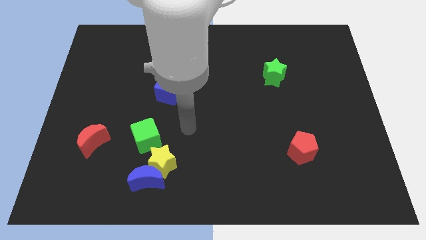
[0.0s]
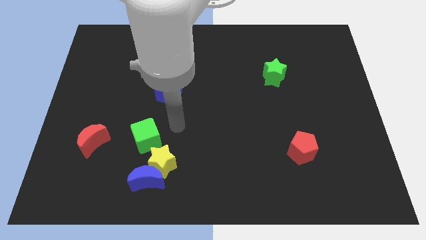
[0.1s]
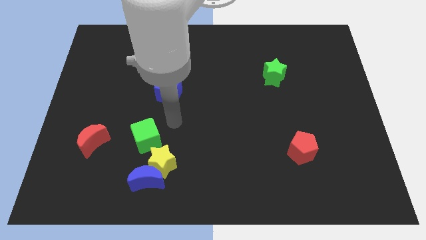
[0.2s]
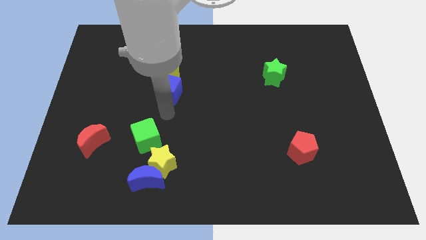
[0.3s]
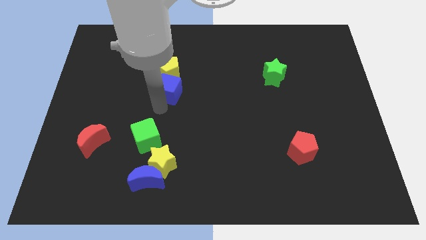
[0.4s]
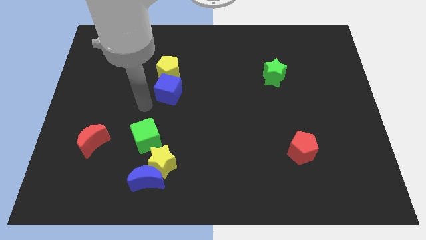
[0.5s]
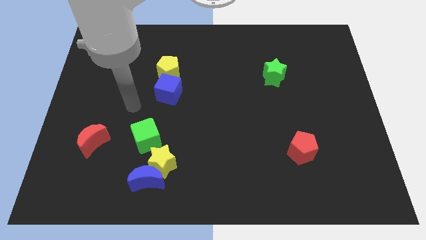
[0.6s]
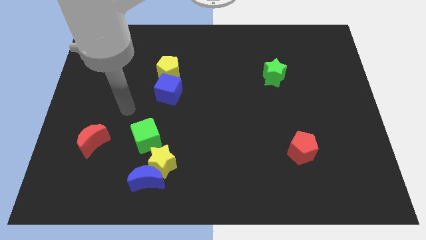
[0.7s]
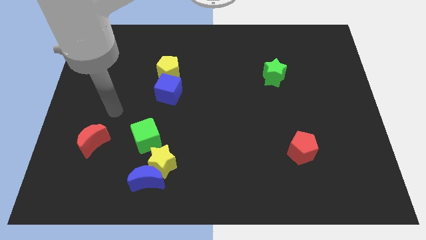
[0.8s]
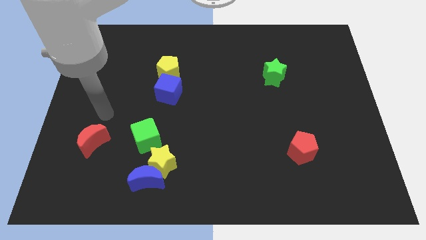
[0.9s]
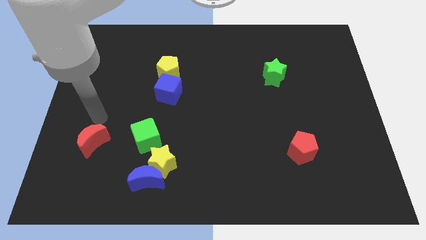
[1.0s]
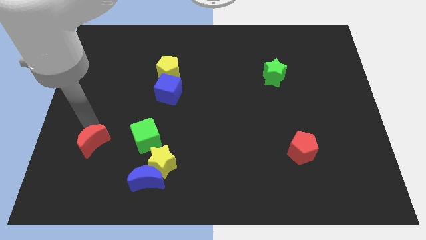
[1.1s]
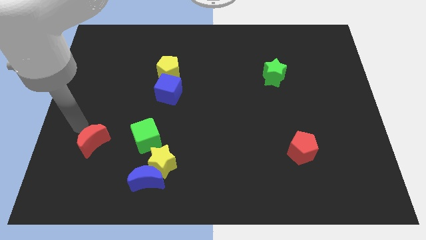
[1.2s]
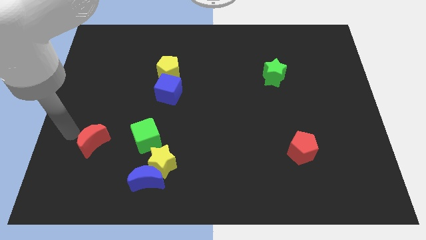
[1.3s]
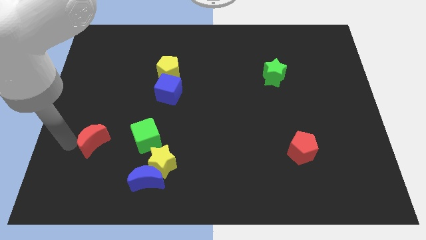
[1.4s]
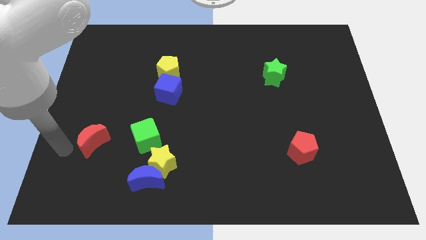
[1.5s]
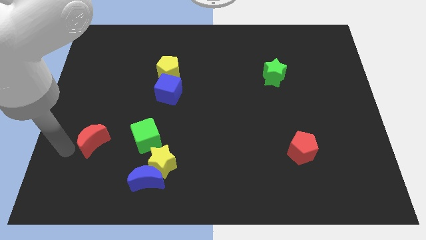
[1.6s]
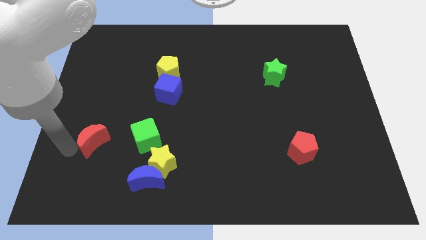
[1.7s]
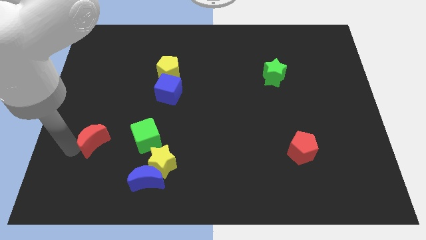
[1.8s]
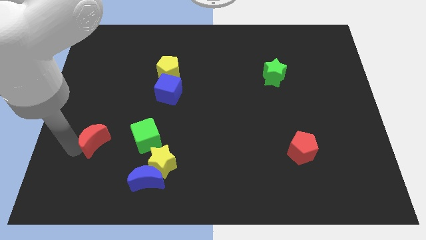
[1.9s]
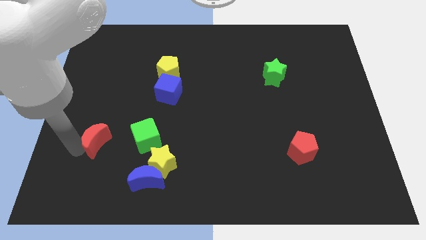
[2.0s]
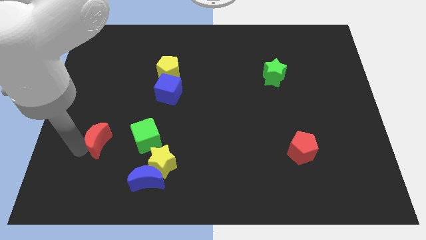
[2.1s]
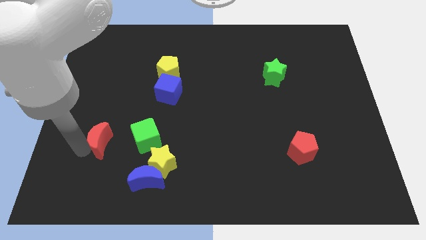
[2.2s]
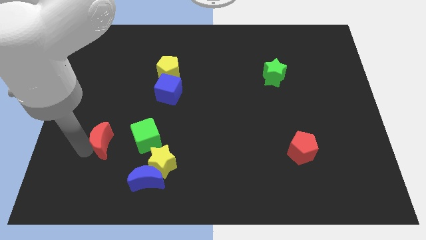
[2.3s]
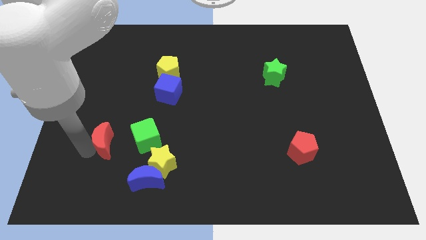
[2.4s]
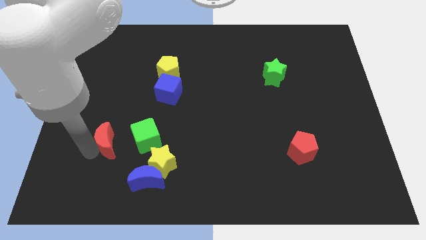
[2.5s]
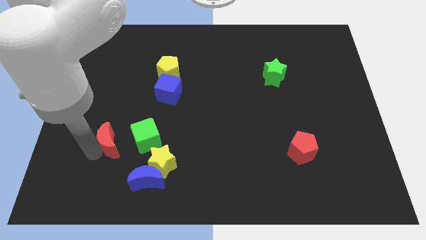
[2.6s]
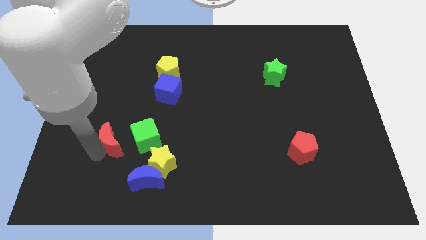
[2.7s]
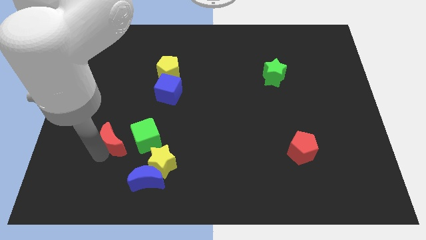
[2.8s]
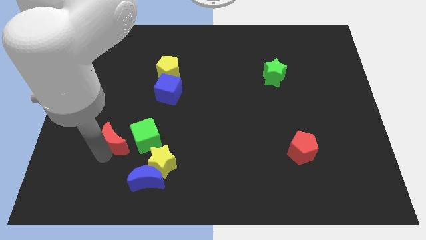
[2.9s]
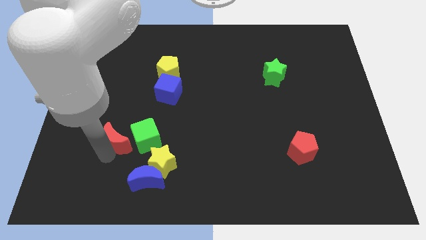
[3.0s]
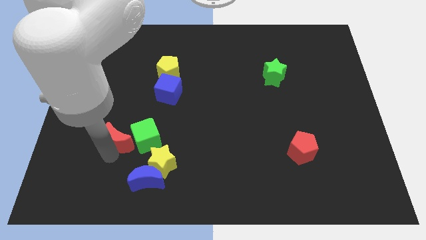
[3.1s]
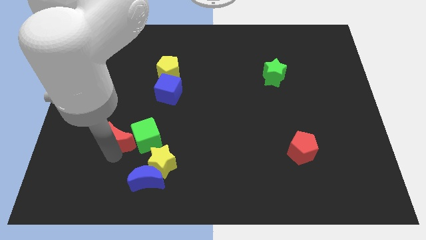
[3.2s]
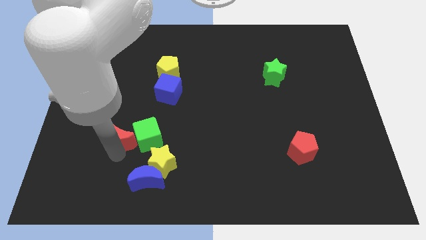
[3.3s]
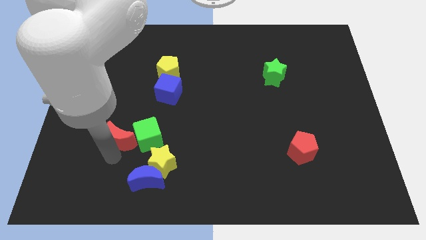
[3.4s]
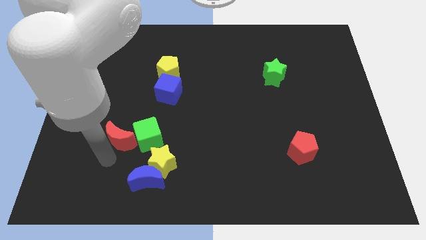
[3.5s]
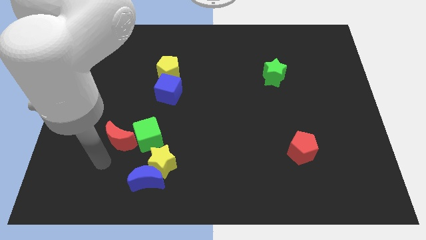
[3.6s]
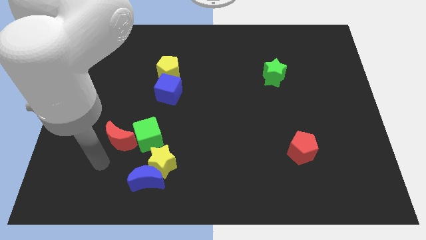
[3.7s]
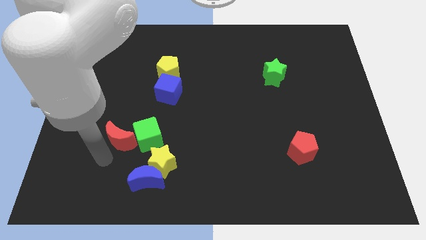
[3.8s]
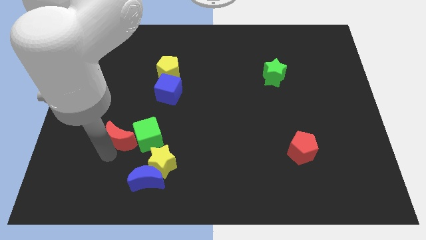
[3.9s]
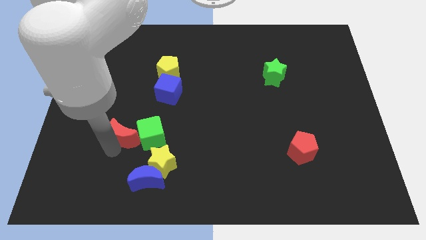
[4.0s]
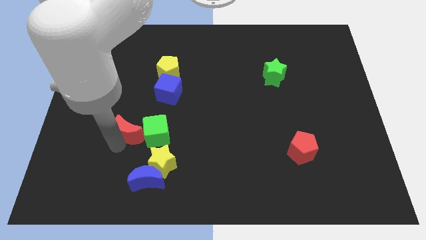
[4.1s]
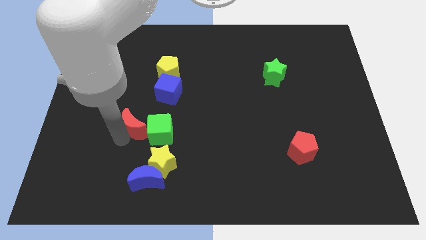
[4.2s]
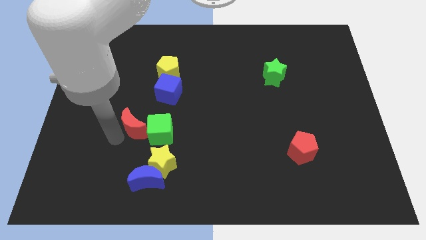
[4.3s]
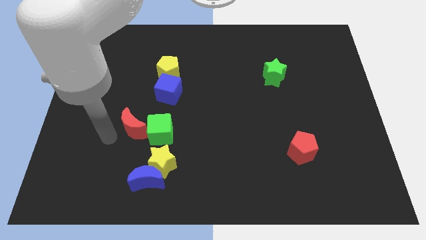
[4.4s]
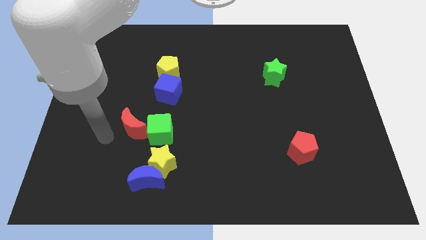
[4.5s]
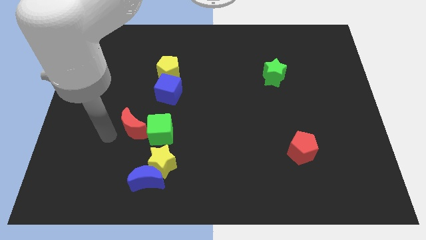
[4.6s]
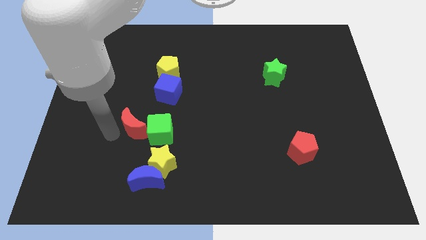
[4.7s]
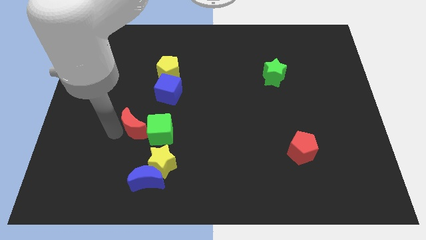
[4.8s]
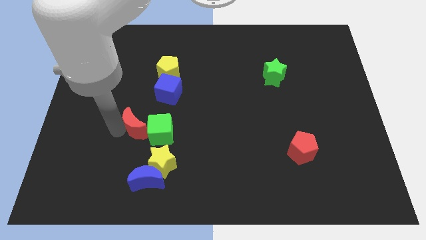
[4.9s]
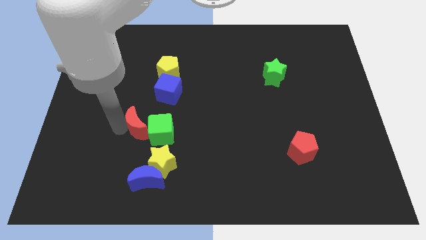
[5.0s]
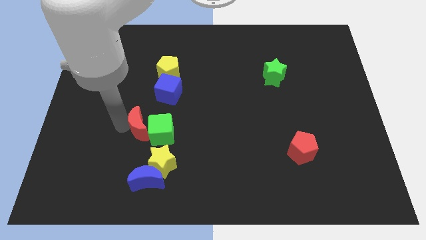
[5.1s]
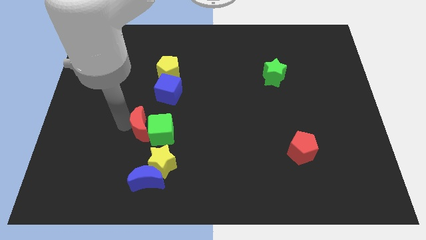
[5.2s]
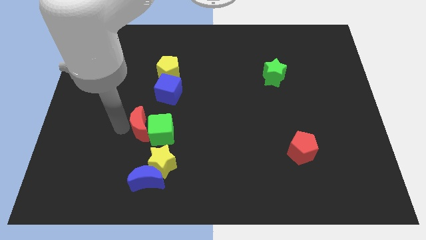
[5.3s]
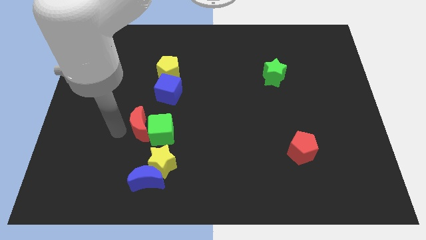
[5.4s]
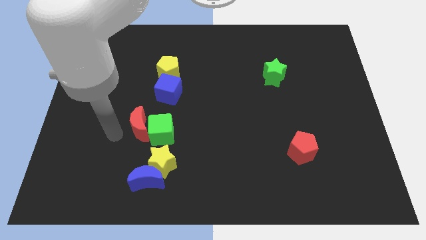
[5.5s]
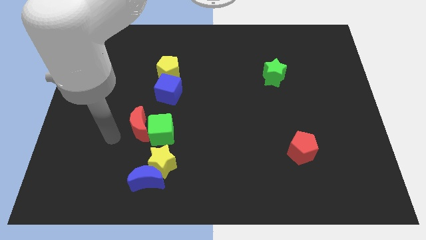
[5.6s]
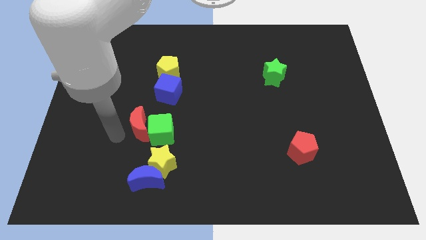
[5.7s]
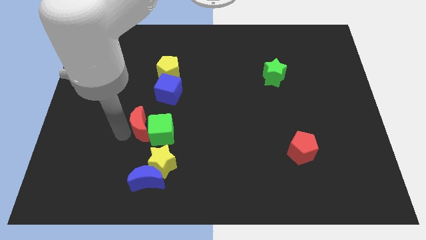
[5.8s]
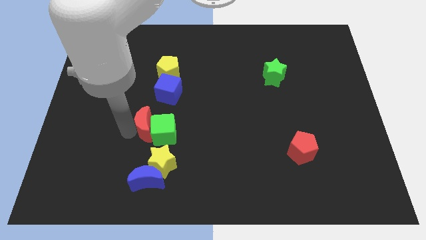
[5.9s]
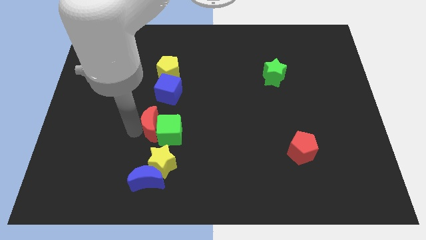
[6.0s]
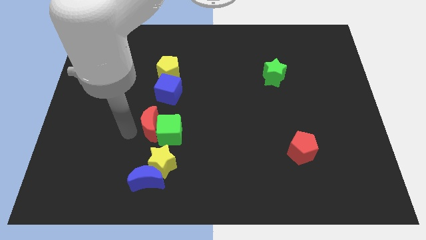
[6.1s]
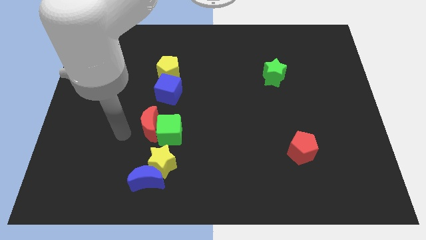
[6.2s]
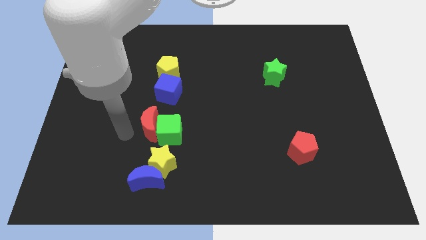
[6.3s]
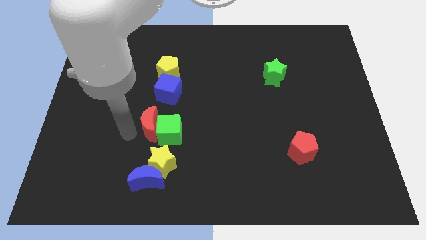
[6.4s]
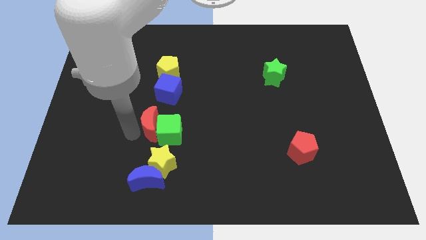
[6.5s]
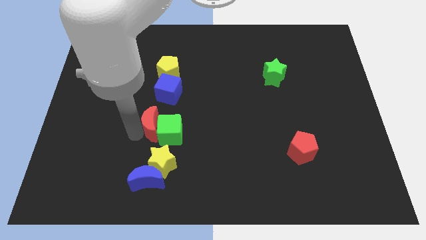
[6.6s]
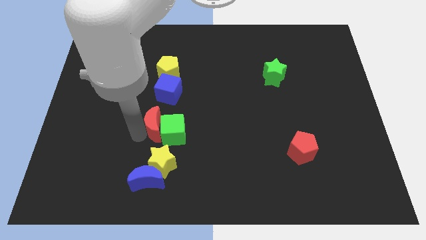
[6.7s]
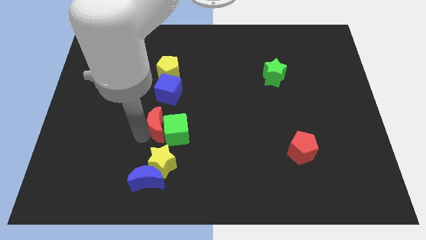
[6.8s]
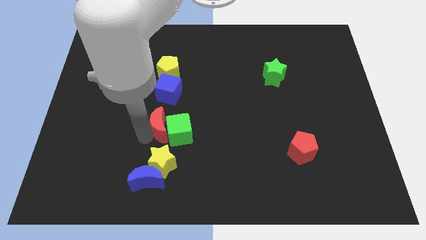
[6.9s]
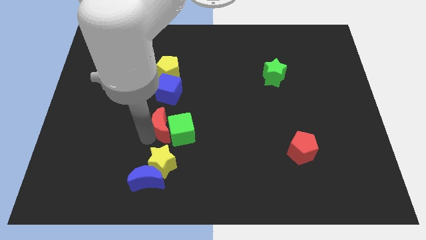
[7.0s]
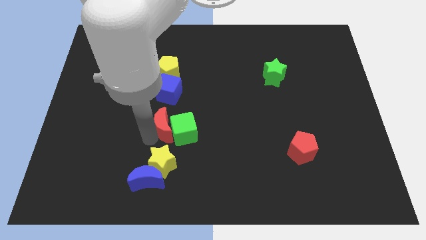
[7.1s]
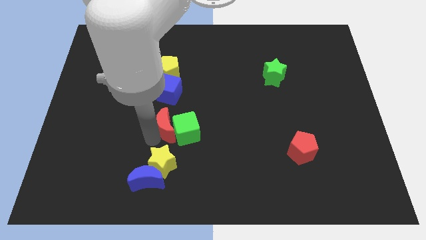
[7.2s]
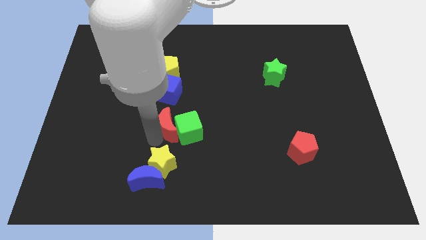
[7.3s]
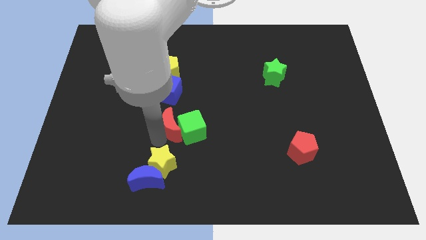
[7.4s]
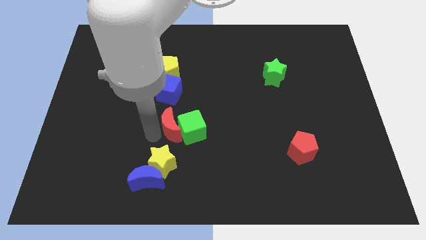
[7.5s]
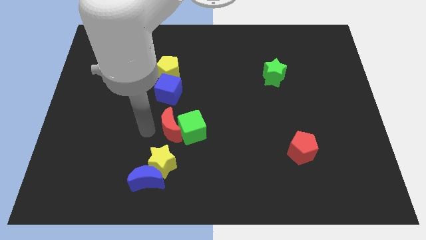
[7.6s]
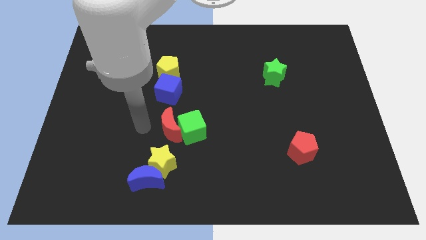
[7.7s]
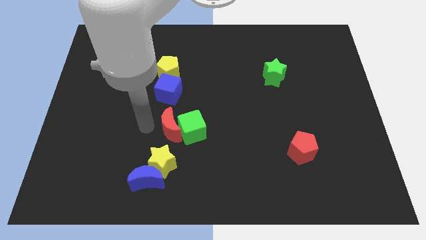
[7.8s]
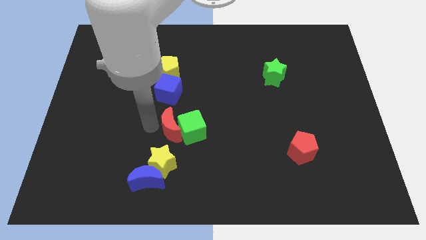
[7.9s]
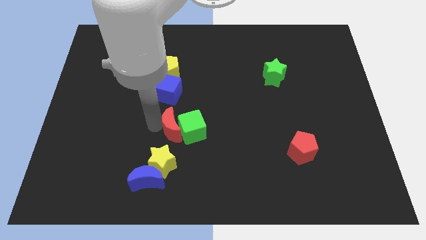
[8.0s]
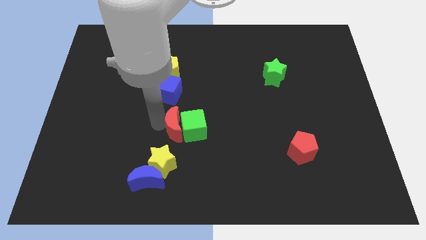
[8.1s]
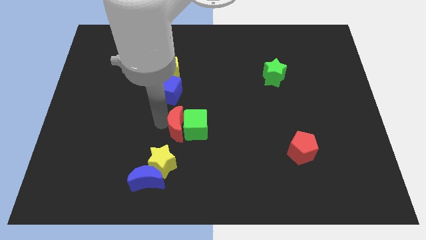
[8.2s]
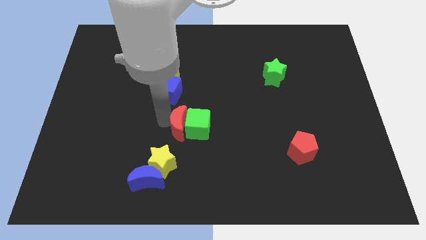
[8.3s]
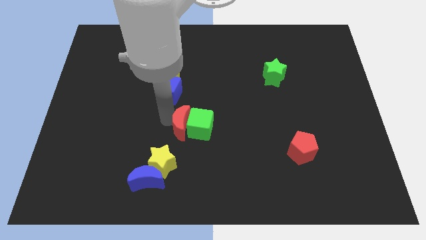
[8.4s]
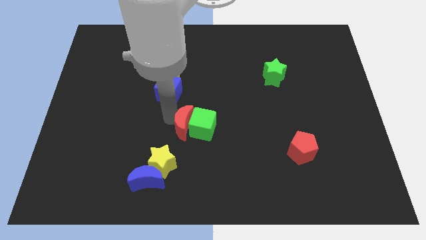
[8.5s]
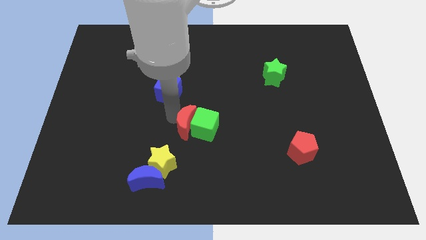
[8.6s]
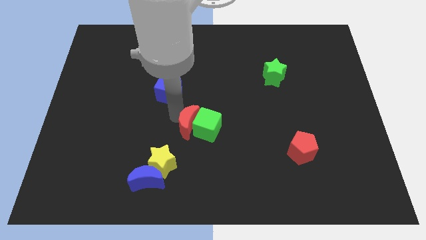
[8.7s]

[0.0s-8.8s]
push the red moon to the right
